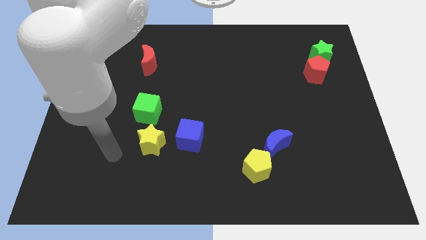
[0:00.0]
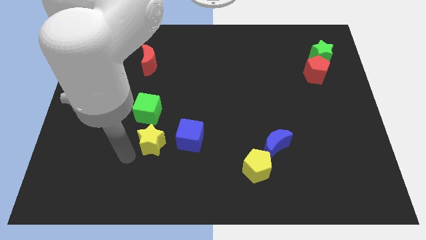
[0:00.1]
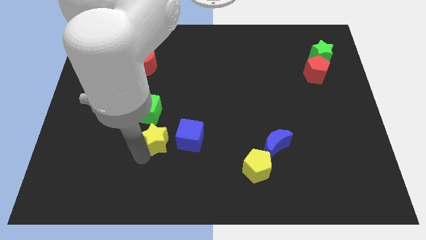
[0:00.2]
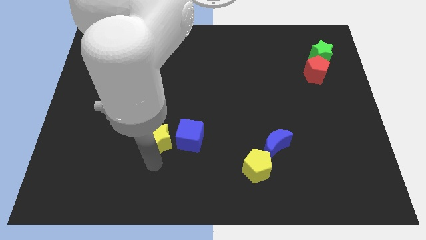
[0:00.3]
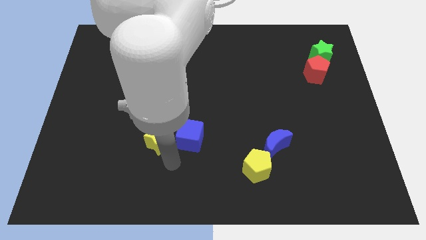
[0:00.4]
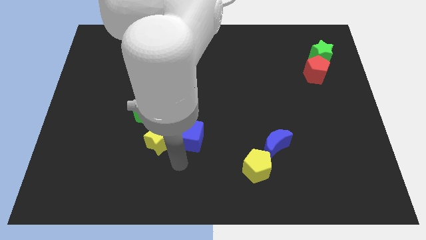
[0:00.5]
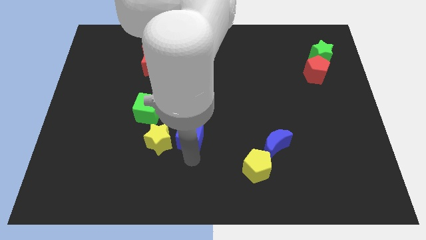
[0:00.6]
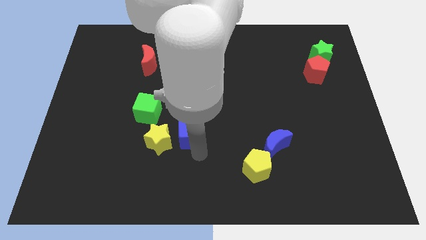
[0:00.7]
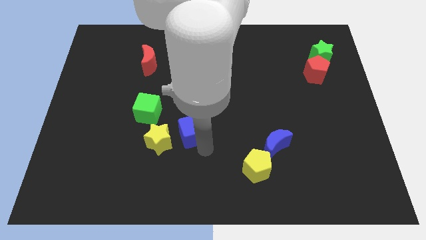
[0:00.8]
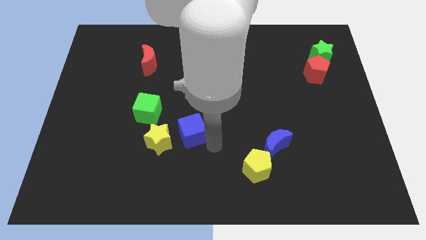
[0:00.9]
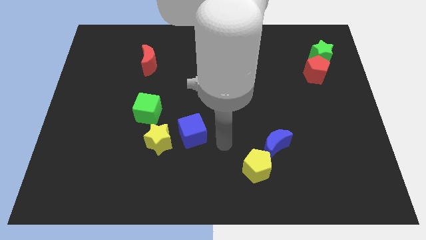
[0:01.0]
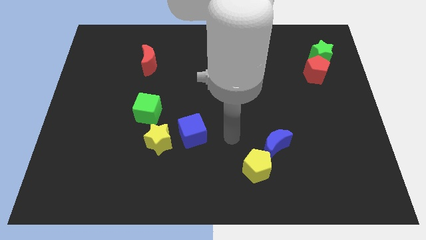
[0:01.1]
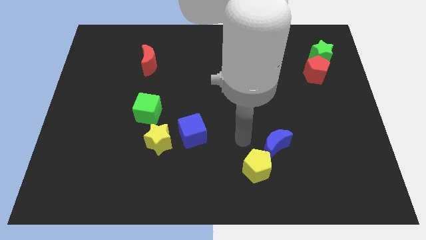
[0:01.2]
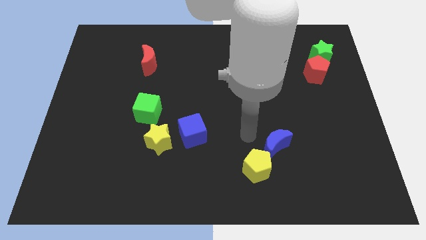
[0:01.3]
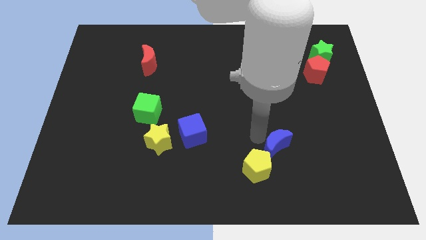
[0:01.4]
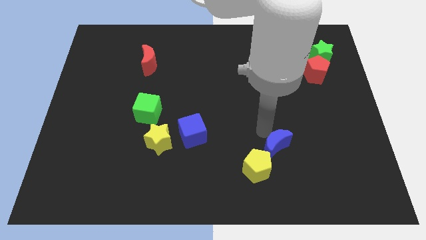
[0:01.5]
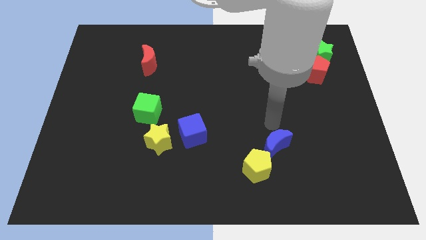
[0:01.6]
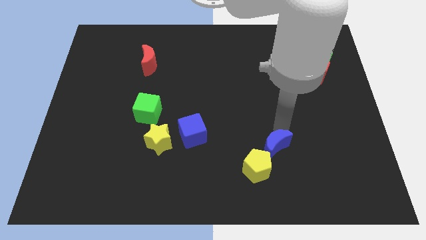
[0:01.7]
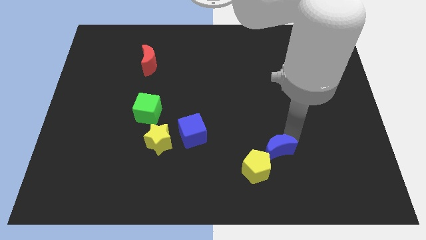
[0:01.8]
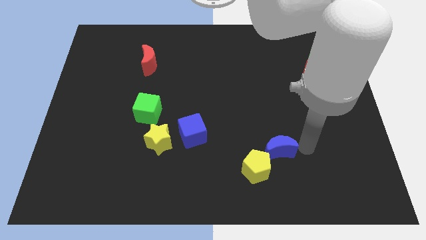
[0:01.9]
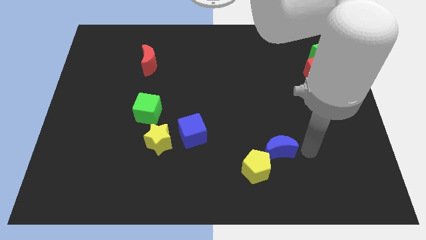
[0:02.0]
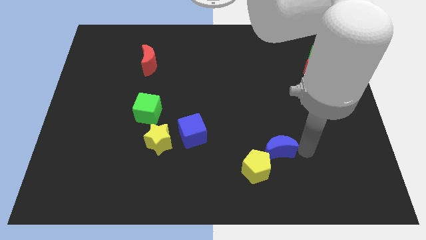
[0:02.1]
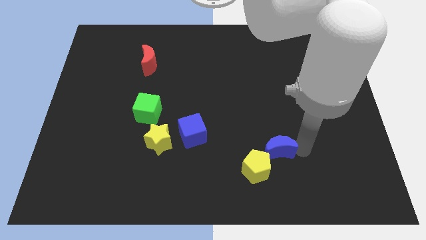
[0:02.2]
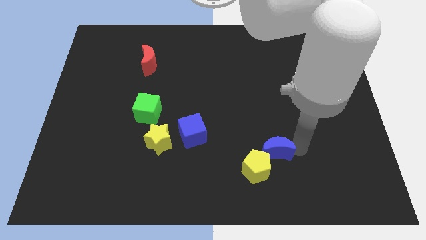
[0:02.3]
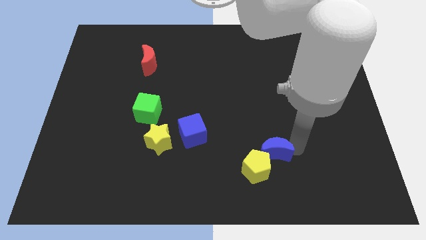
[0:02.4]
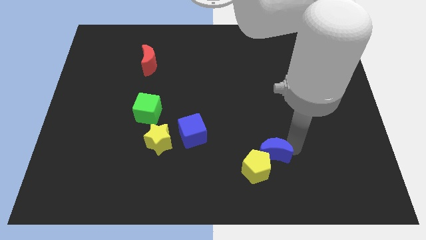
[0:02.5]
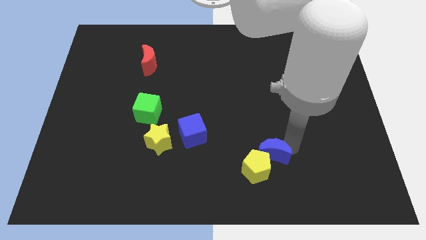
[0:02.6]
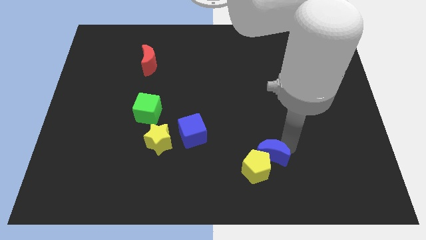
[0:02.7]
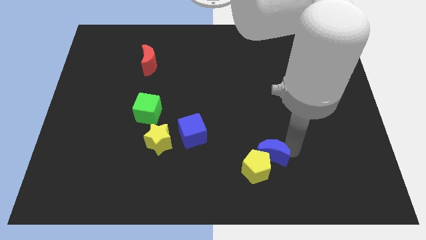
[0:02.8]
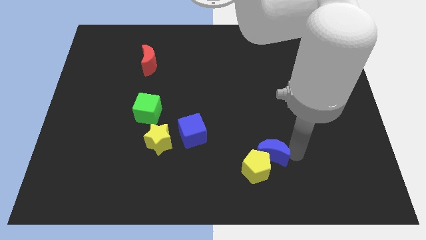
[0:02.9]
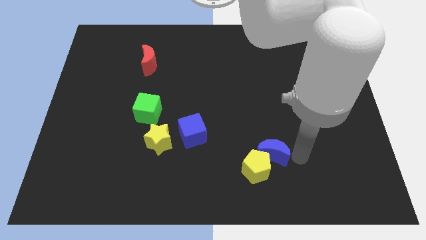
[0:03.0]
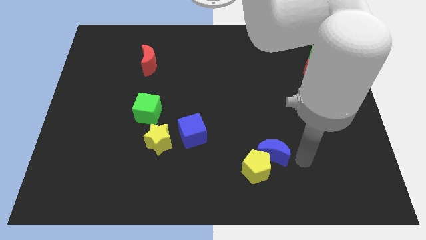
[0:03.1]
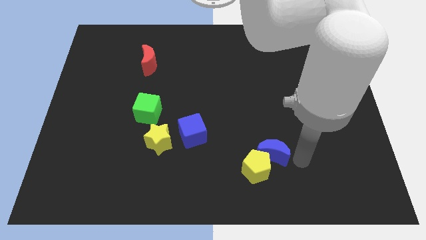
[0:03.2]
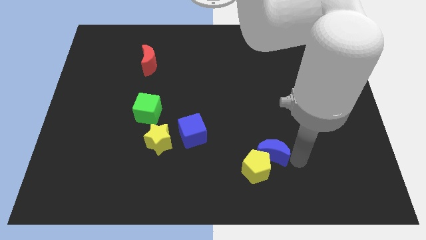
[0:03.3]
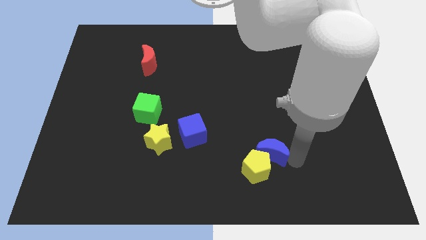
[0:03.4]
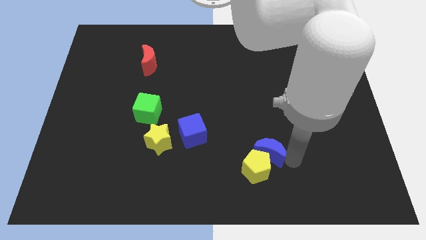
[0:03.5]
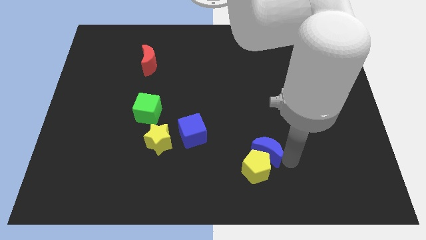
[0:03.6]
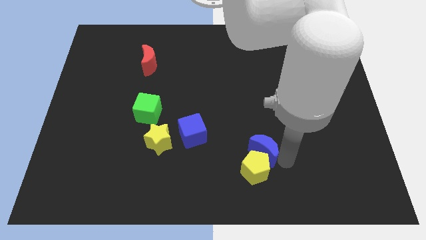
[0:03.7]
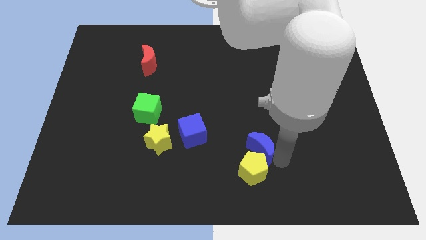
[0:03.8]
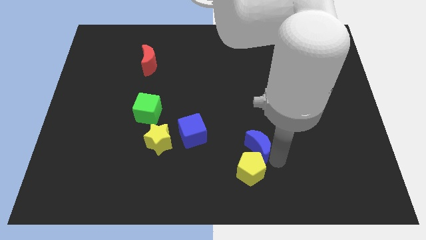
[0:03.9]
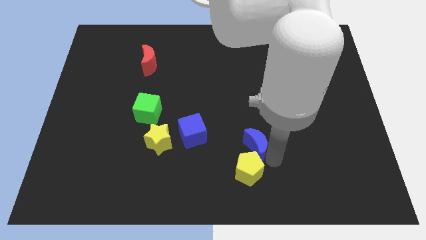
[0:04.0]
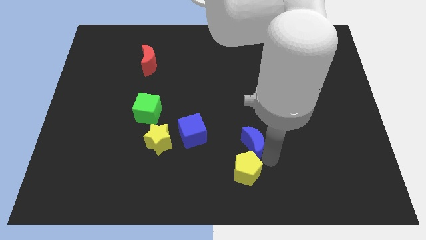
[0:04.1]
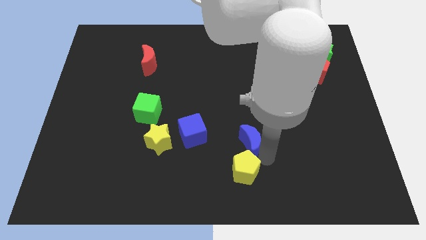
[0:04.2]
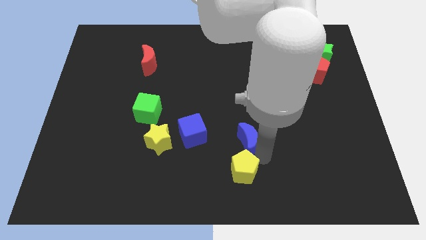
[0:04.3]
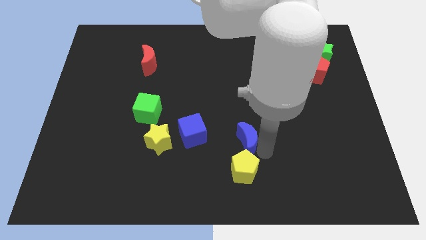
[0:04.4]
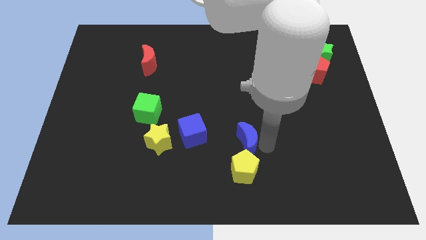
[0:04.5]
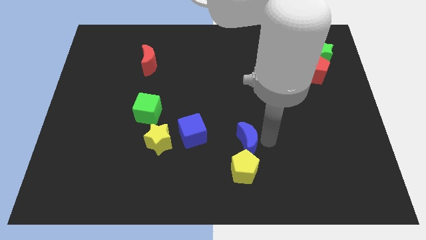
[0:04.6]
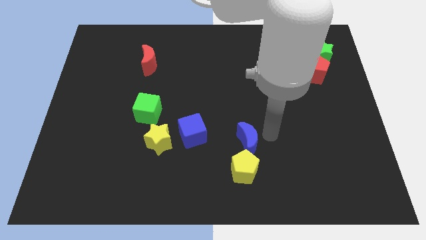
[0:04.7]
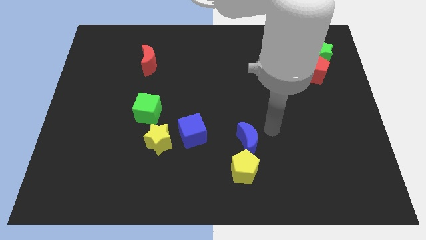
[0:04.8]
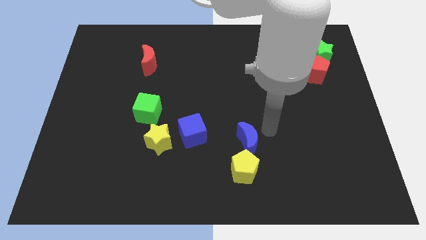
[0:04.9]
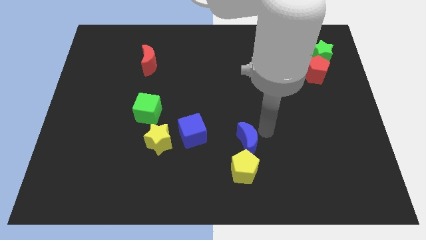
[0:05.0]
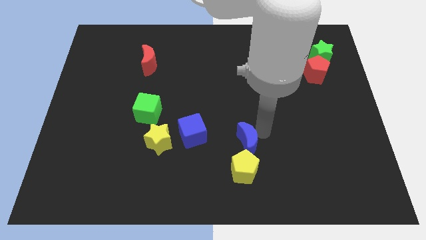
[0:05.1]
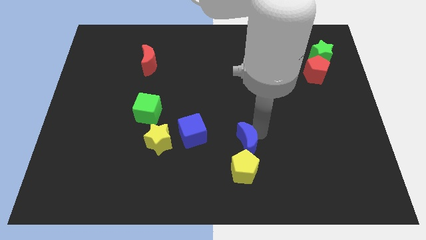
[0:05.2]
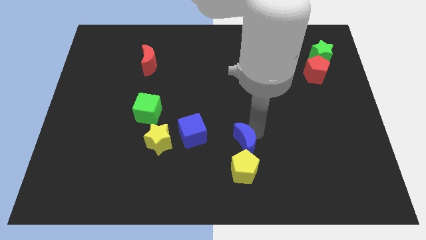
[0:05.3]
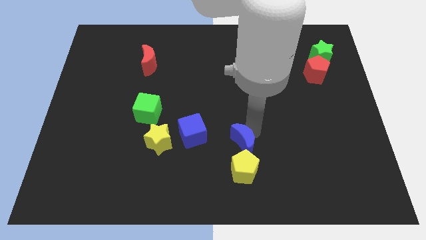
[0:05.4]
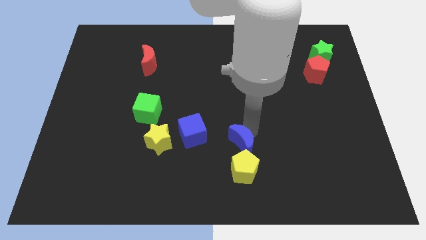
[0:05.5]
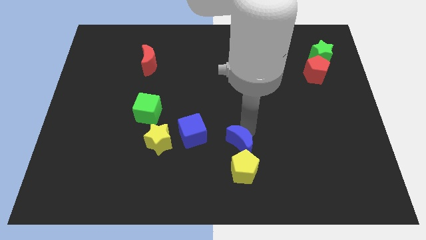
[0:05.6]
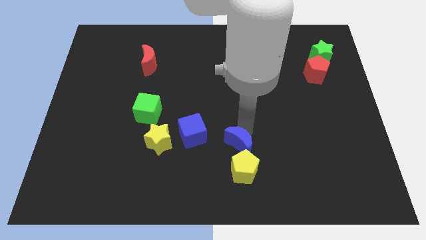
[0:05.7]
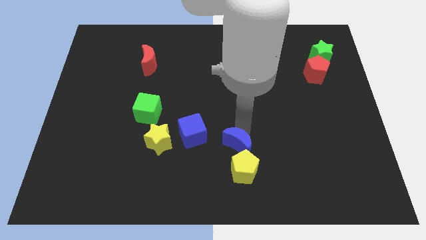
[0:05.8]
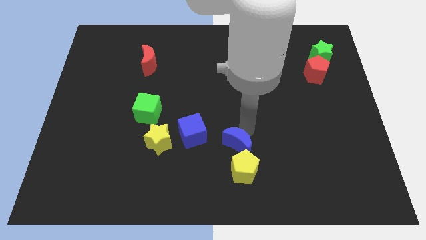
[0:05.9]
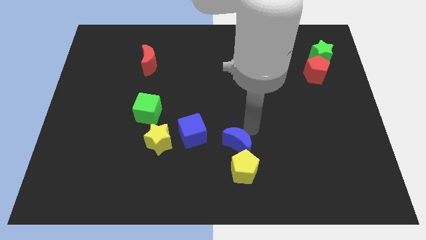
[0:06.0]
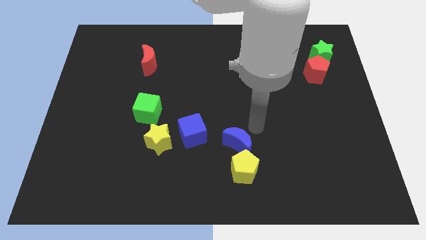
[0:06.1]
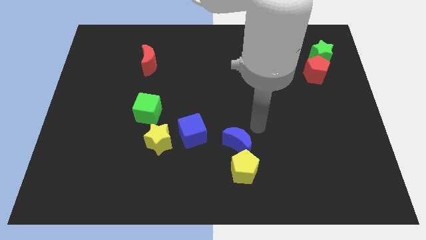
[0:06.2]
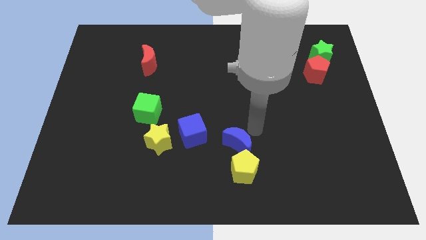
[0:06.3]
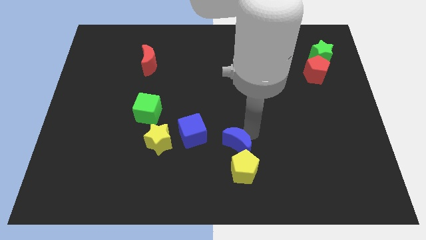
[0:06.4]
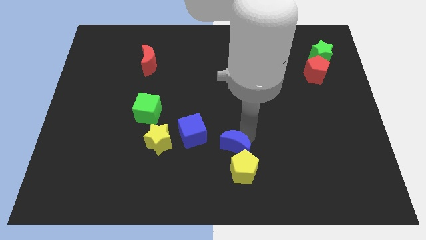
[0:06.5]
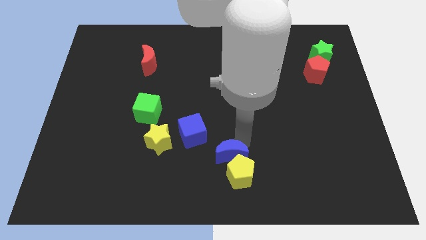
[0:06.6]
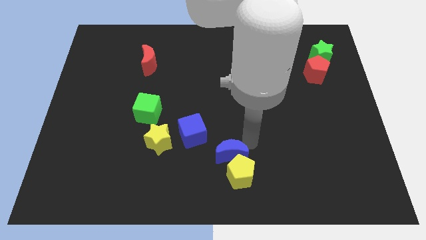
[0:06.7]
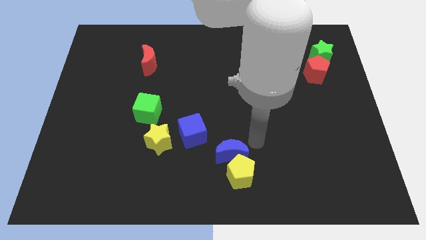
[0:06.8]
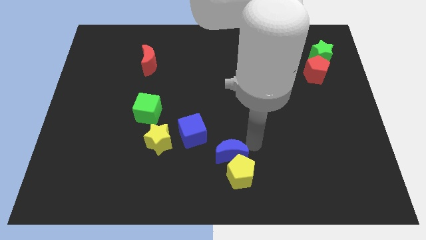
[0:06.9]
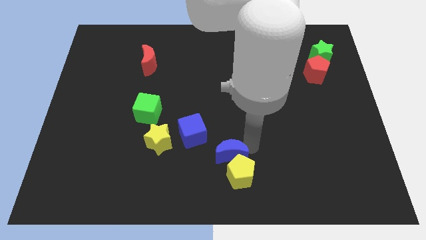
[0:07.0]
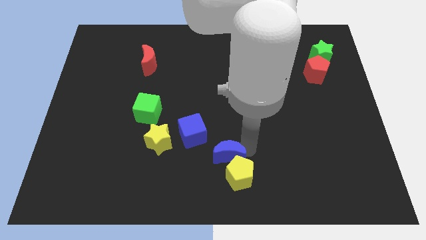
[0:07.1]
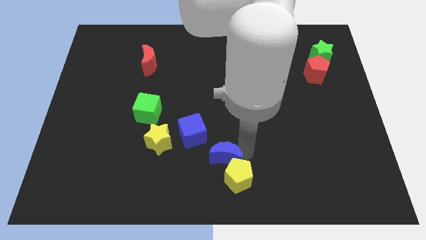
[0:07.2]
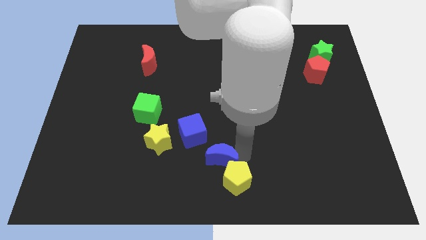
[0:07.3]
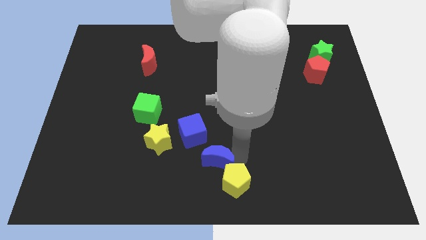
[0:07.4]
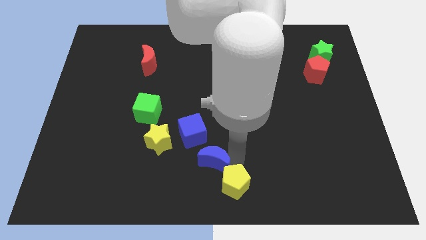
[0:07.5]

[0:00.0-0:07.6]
move the blue moon to the left of the yellow pentagon
